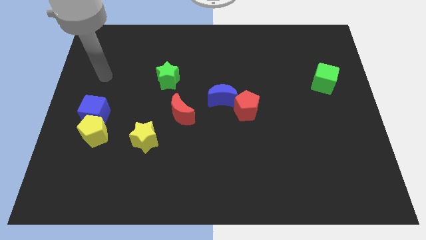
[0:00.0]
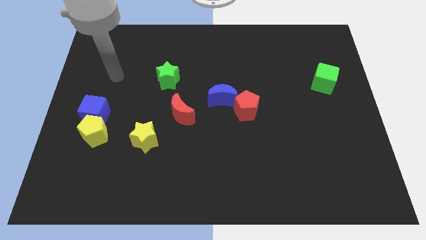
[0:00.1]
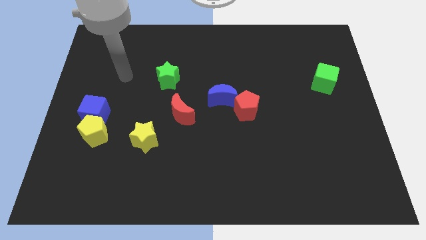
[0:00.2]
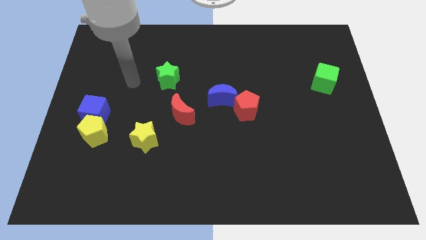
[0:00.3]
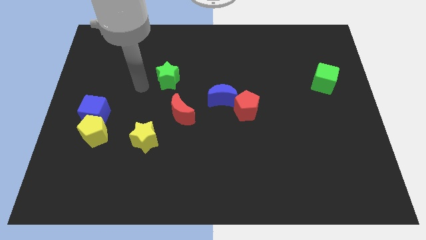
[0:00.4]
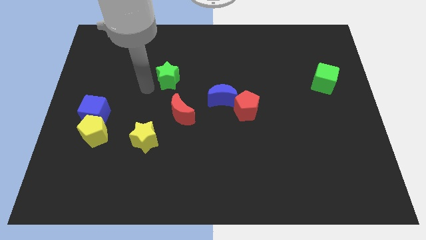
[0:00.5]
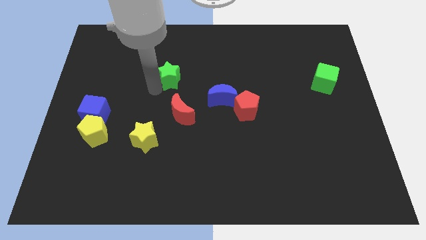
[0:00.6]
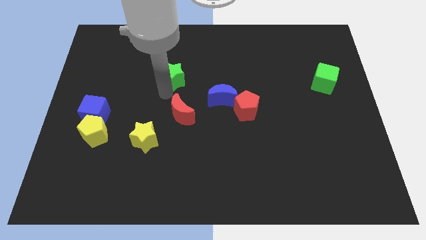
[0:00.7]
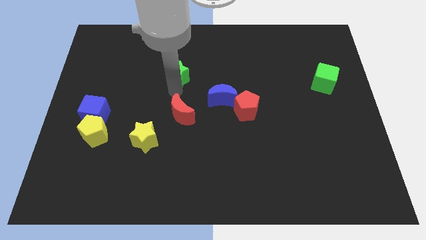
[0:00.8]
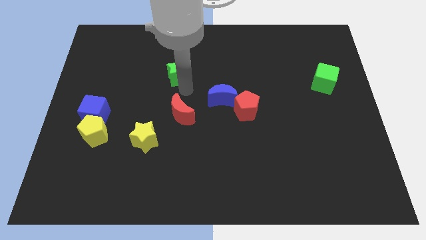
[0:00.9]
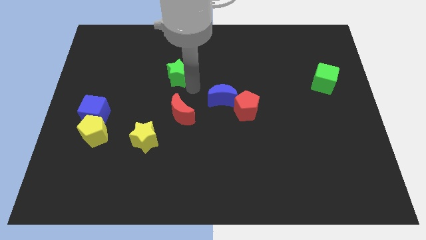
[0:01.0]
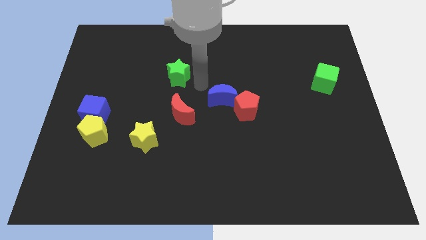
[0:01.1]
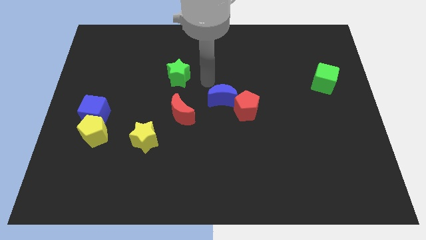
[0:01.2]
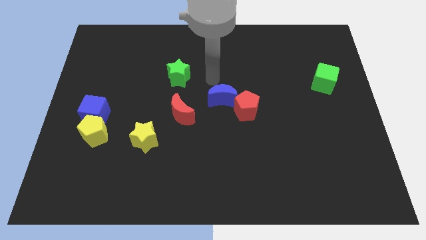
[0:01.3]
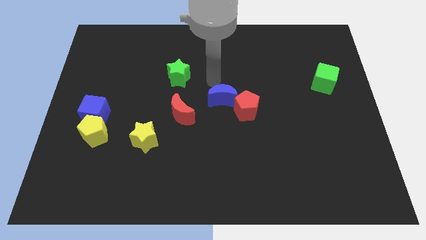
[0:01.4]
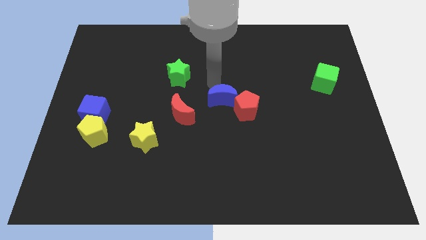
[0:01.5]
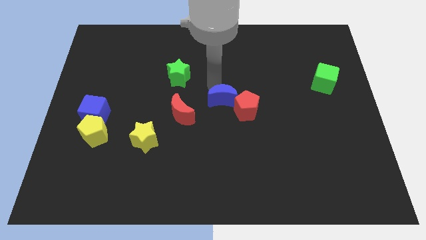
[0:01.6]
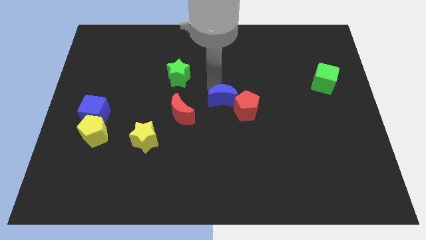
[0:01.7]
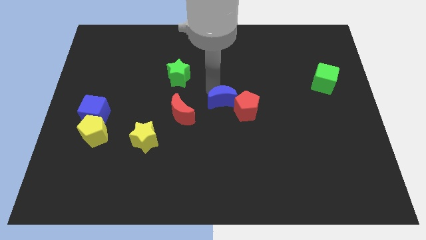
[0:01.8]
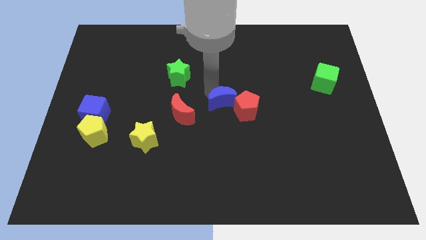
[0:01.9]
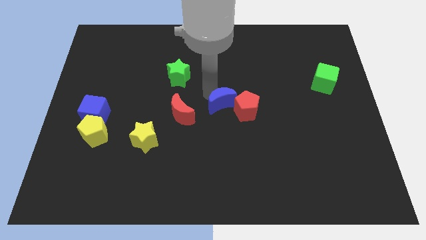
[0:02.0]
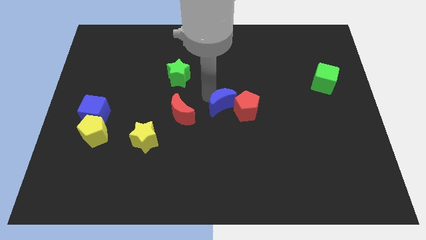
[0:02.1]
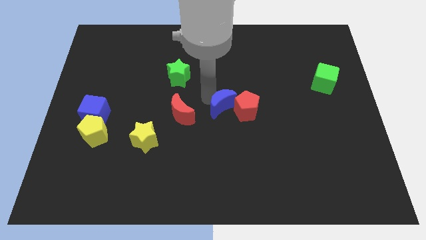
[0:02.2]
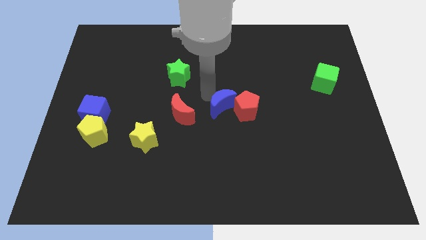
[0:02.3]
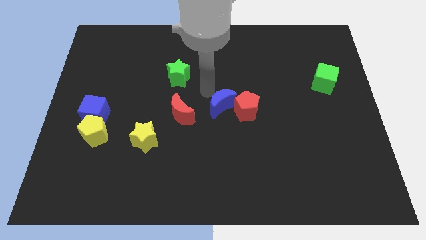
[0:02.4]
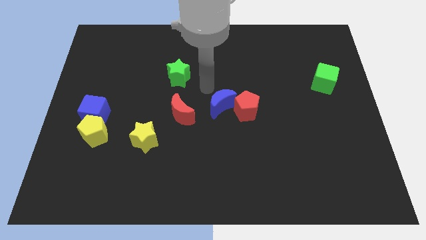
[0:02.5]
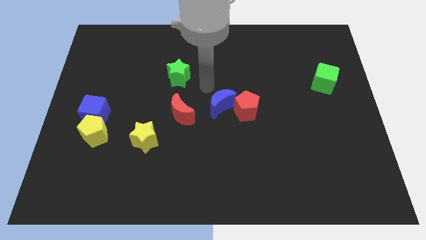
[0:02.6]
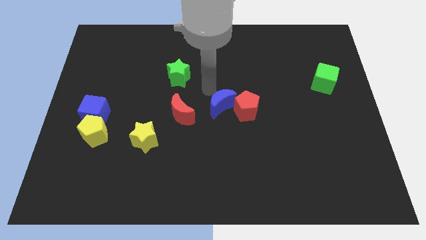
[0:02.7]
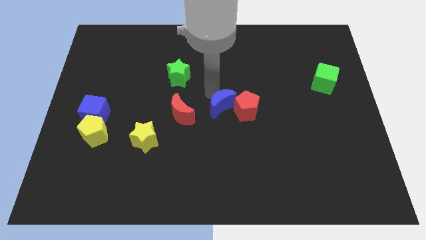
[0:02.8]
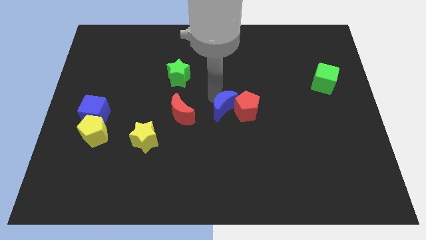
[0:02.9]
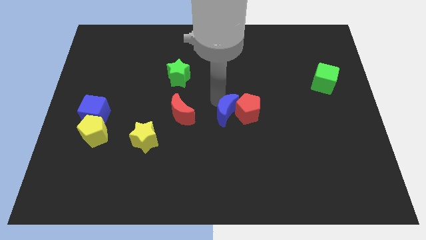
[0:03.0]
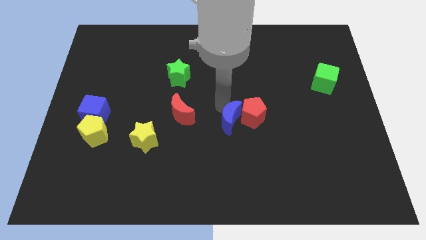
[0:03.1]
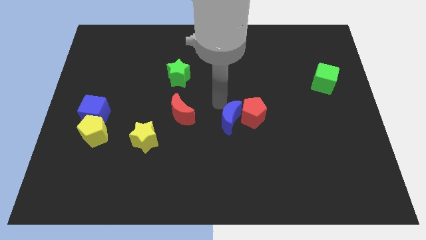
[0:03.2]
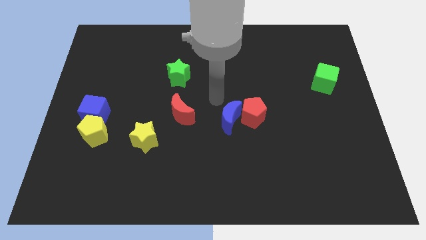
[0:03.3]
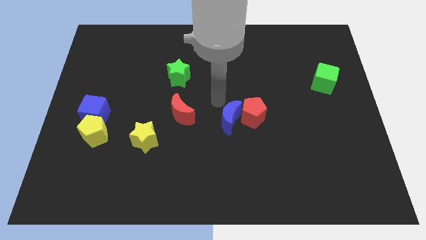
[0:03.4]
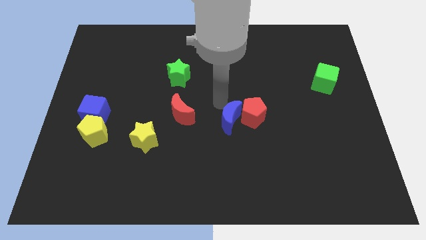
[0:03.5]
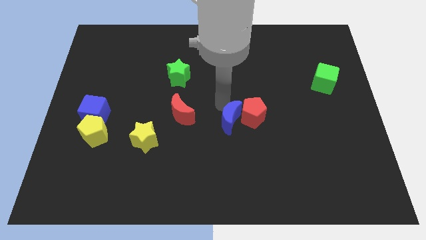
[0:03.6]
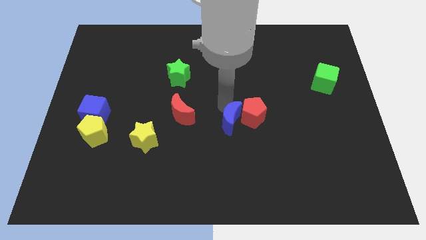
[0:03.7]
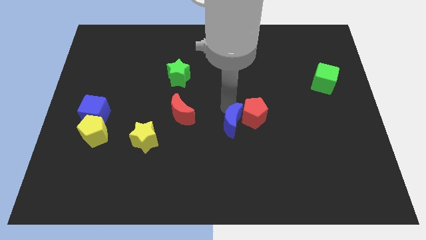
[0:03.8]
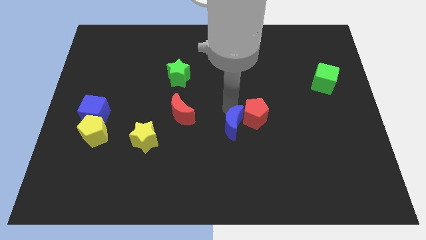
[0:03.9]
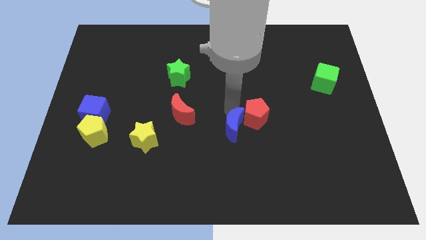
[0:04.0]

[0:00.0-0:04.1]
slide the blue moon diagonally downwards and right somewhat

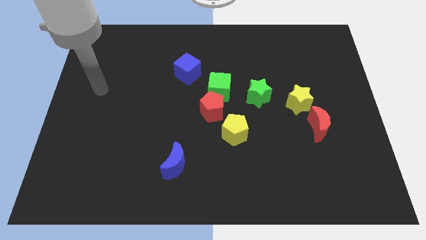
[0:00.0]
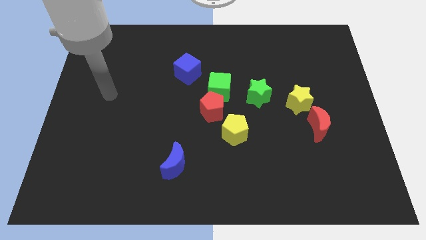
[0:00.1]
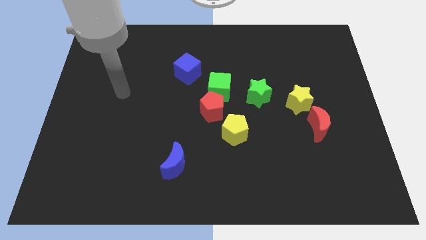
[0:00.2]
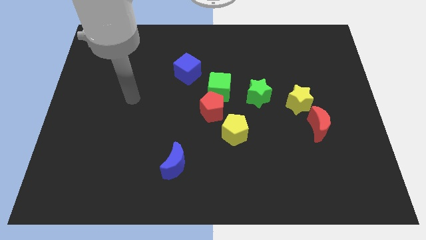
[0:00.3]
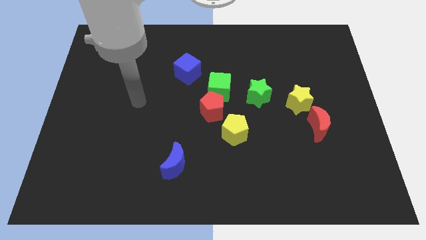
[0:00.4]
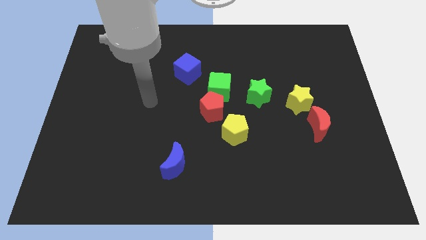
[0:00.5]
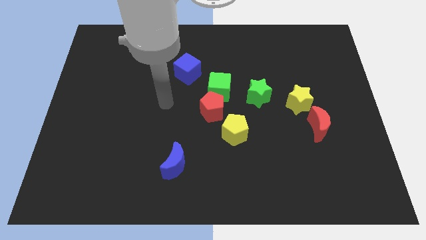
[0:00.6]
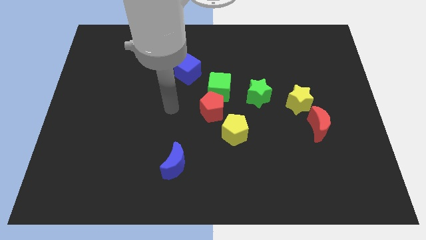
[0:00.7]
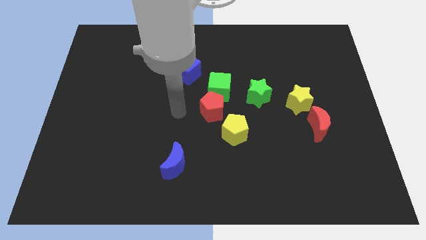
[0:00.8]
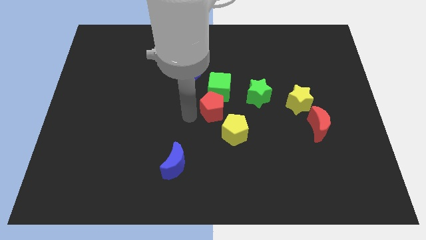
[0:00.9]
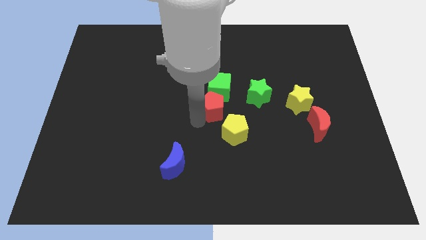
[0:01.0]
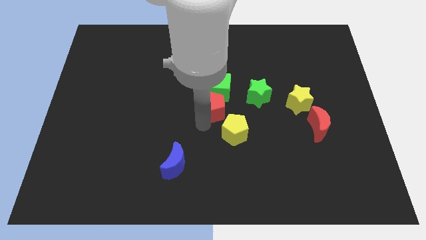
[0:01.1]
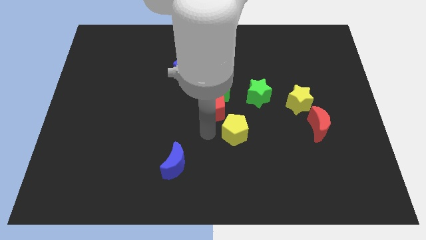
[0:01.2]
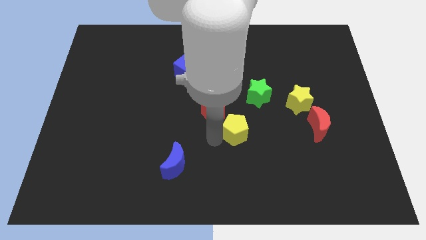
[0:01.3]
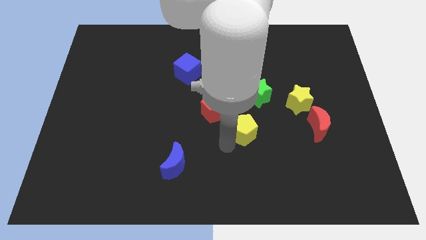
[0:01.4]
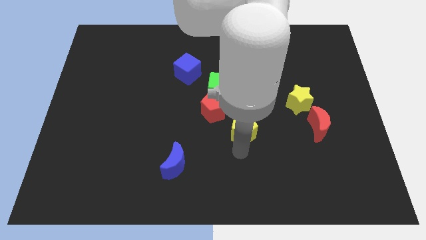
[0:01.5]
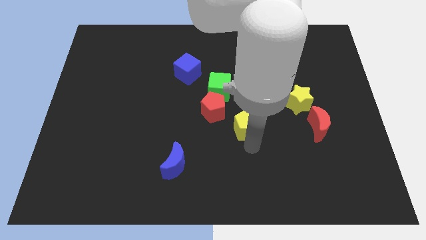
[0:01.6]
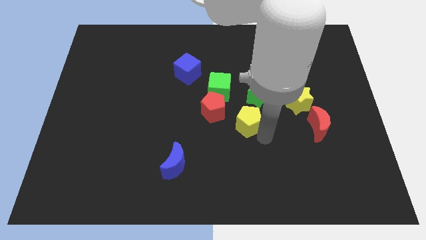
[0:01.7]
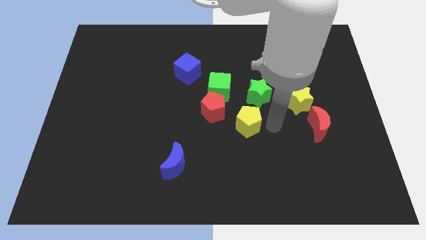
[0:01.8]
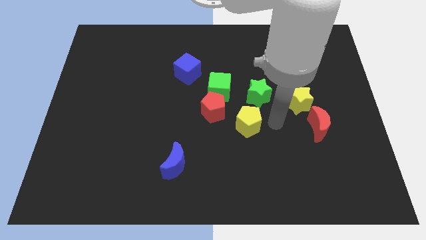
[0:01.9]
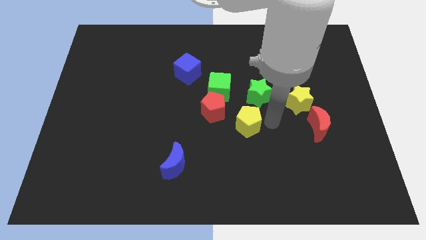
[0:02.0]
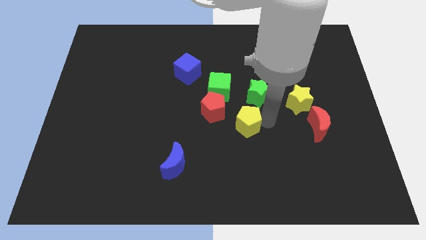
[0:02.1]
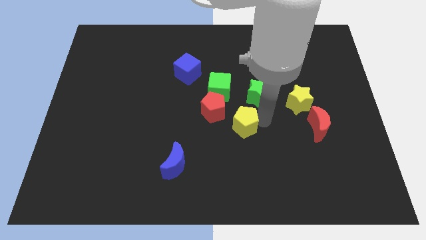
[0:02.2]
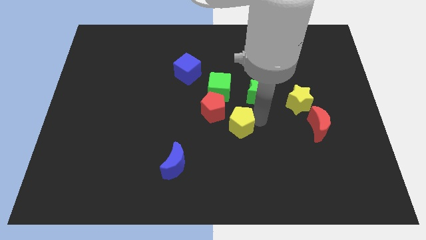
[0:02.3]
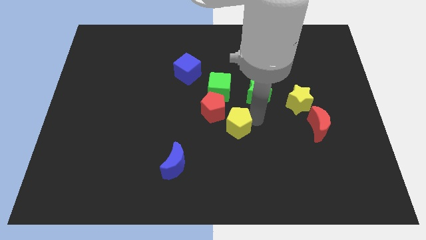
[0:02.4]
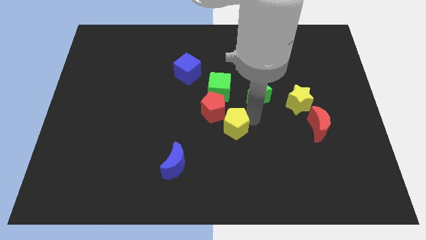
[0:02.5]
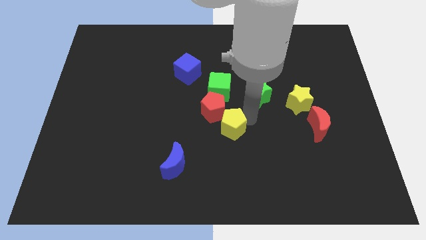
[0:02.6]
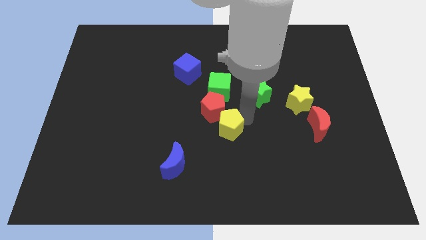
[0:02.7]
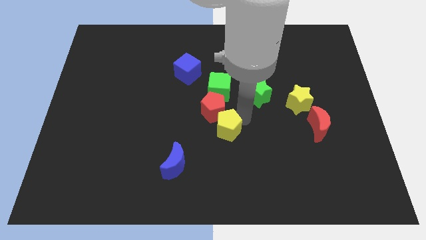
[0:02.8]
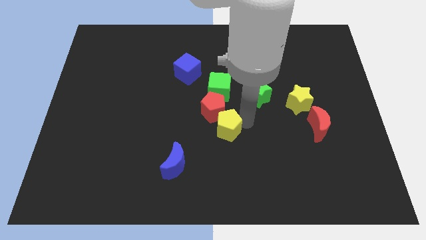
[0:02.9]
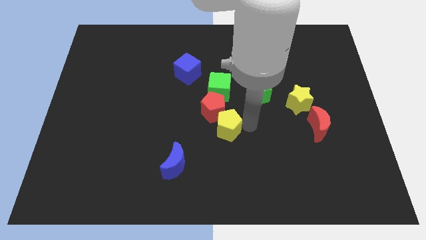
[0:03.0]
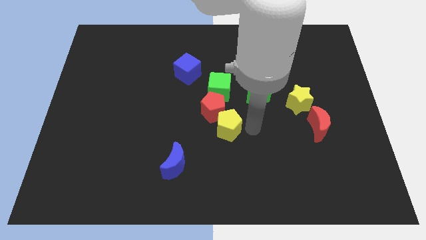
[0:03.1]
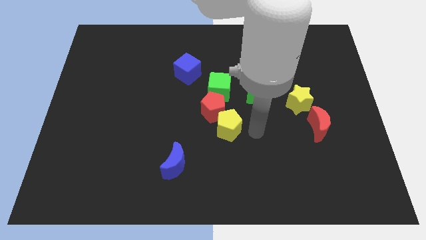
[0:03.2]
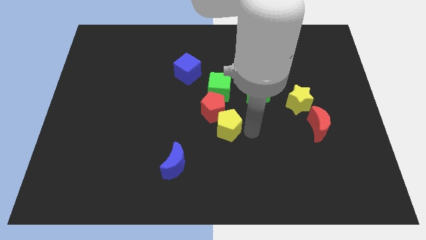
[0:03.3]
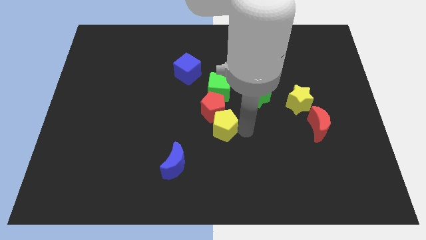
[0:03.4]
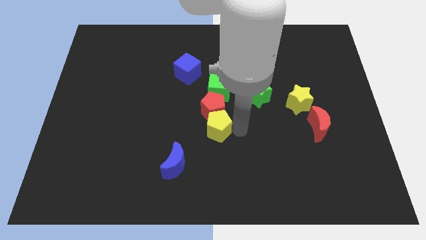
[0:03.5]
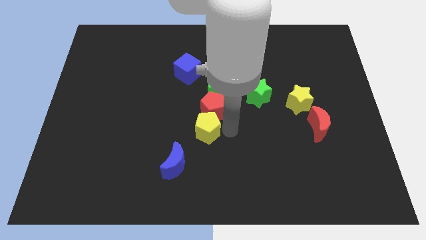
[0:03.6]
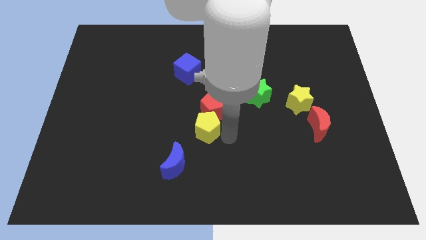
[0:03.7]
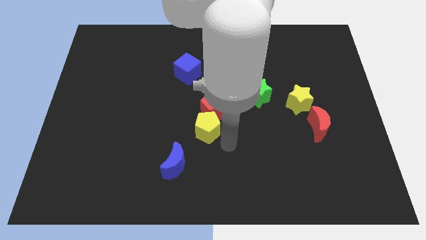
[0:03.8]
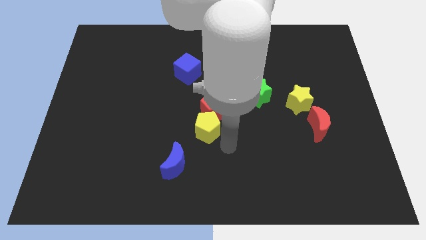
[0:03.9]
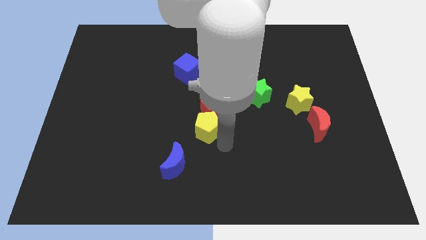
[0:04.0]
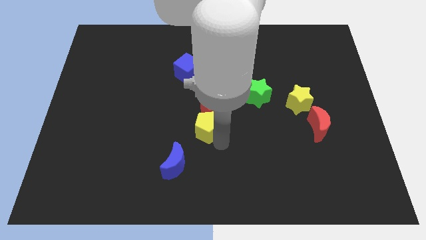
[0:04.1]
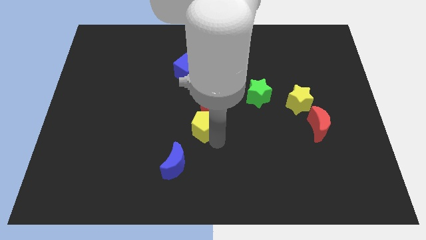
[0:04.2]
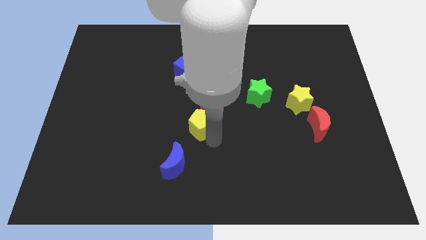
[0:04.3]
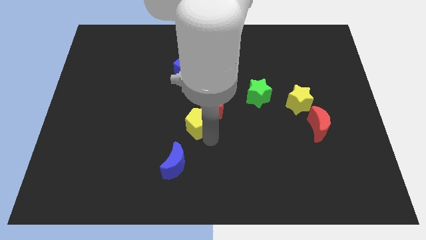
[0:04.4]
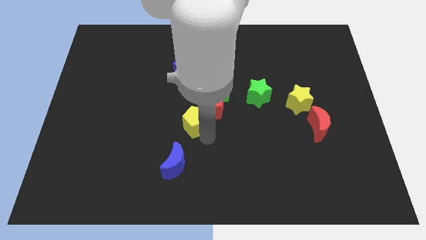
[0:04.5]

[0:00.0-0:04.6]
push the yellow pentagon a bit up and left
